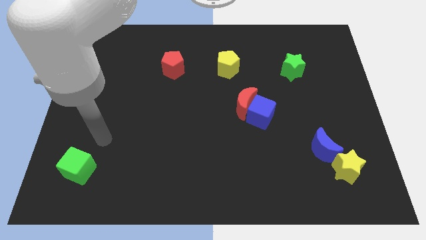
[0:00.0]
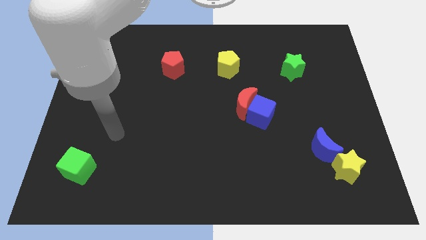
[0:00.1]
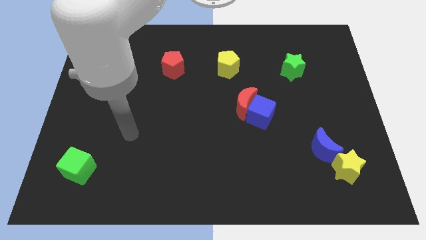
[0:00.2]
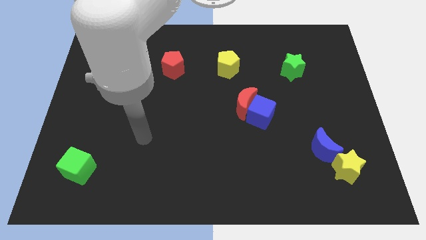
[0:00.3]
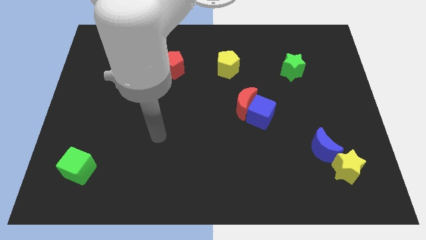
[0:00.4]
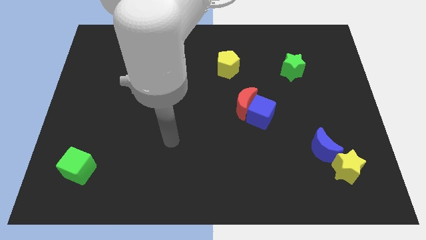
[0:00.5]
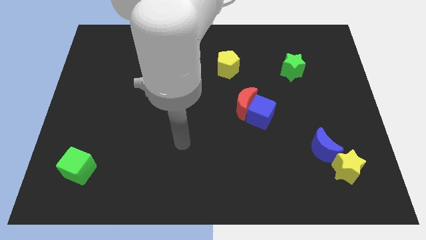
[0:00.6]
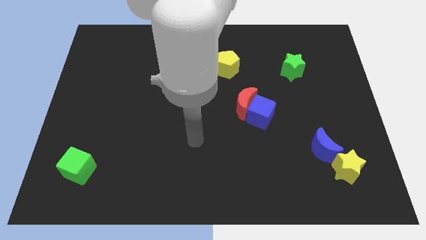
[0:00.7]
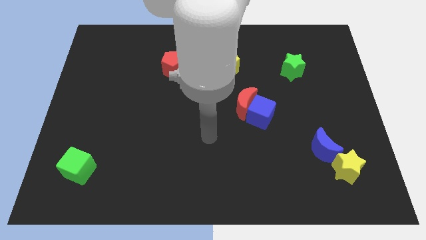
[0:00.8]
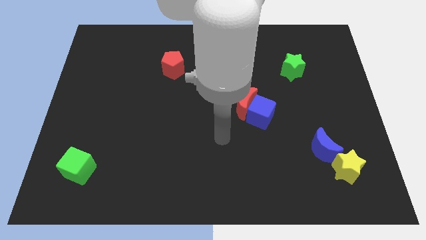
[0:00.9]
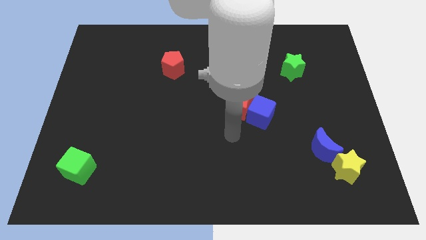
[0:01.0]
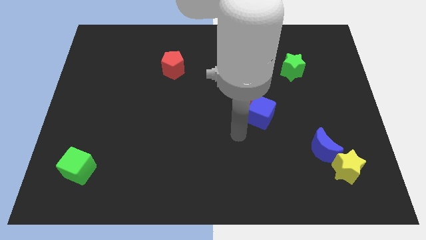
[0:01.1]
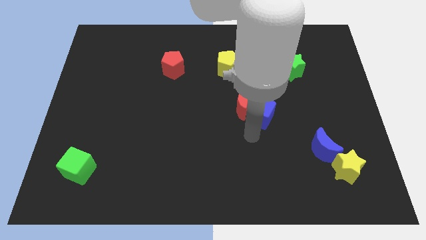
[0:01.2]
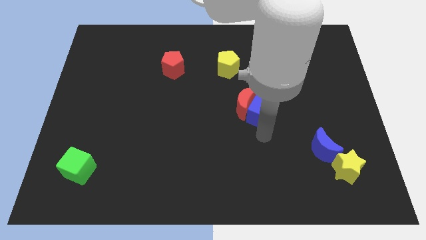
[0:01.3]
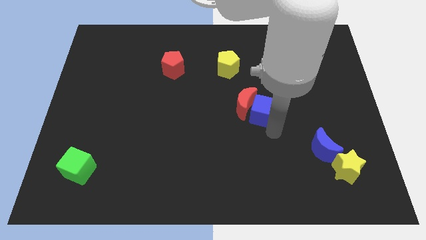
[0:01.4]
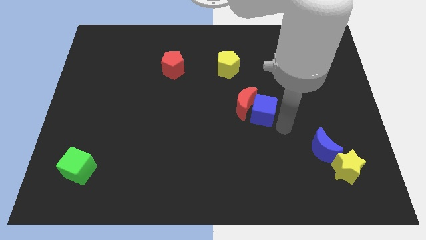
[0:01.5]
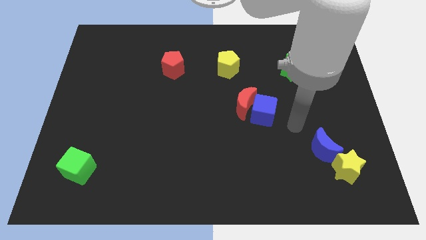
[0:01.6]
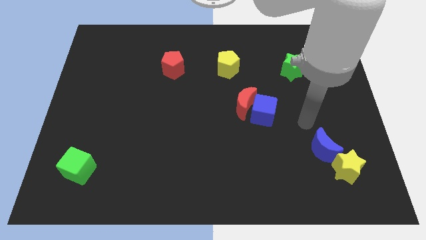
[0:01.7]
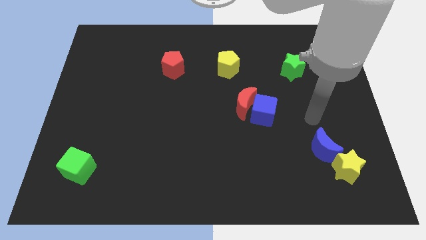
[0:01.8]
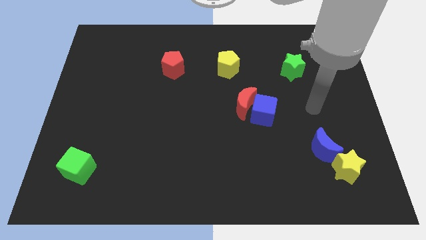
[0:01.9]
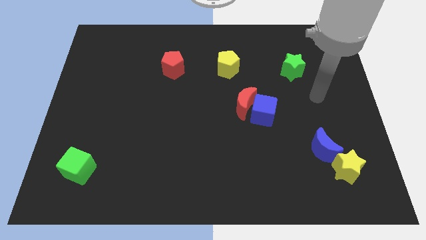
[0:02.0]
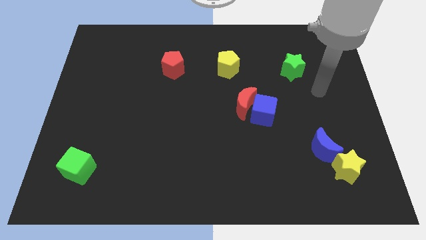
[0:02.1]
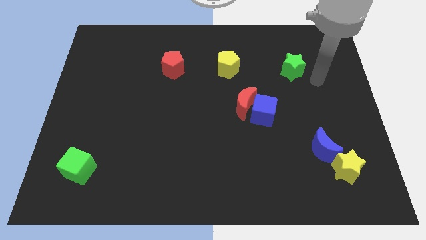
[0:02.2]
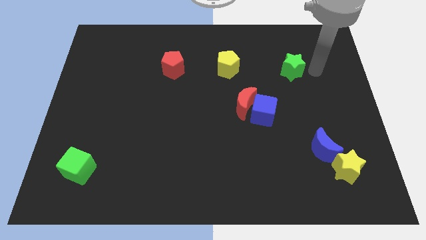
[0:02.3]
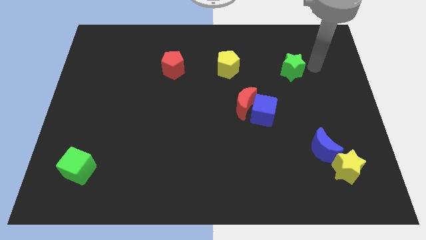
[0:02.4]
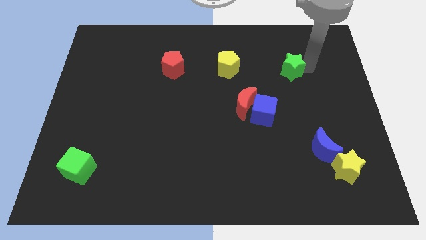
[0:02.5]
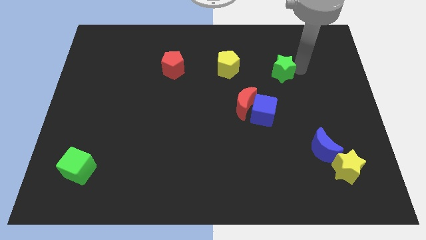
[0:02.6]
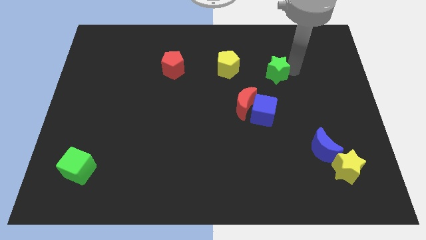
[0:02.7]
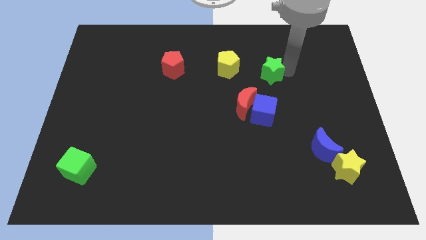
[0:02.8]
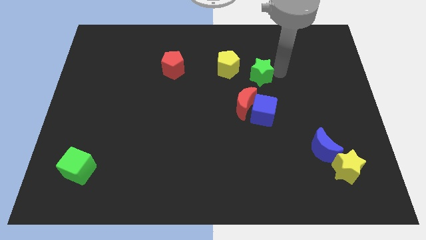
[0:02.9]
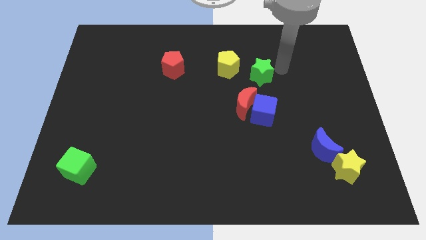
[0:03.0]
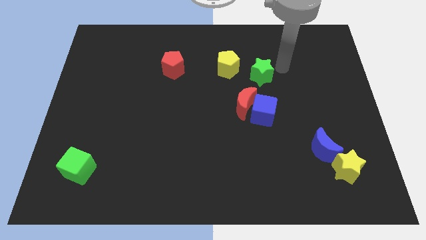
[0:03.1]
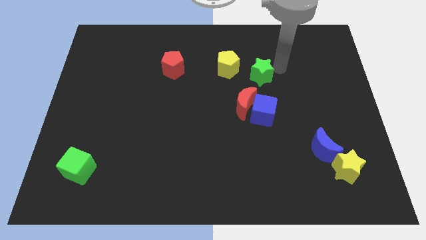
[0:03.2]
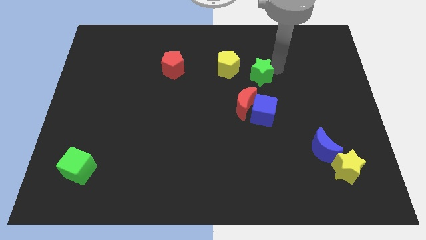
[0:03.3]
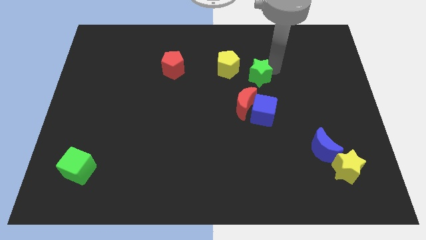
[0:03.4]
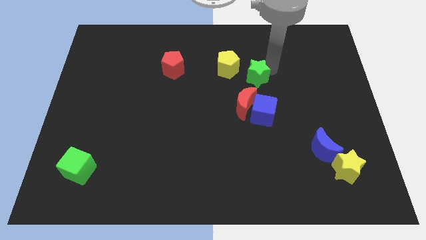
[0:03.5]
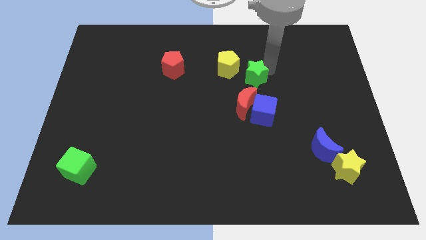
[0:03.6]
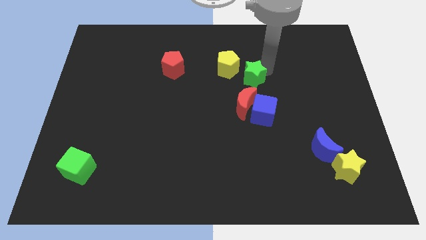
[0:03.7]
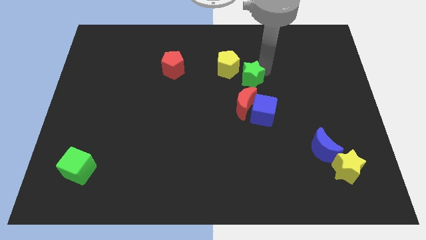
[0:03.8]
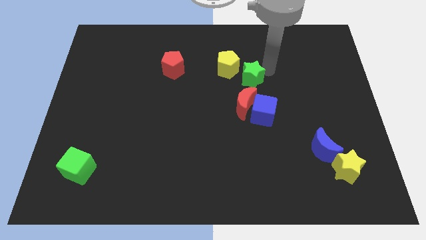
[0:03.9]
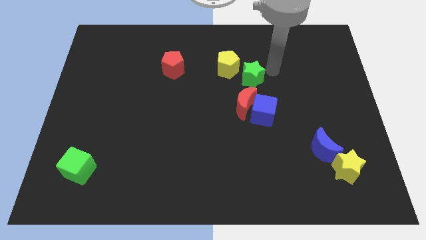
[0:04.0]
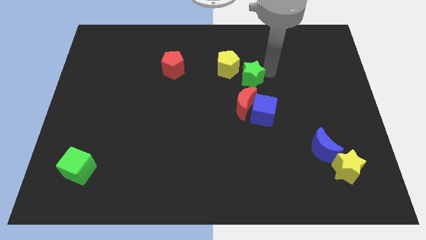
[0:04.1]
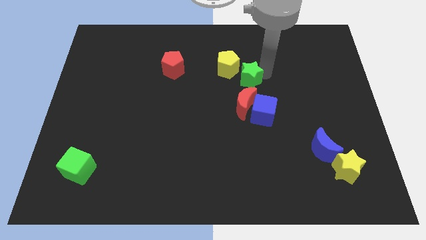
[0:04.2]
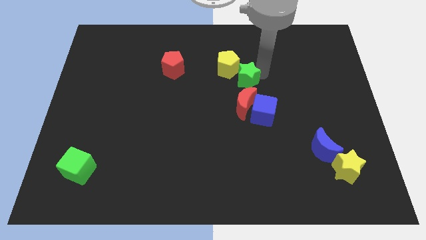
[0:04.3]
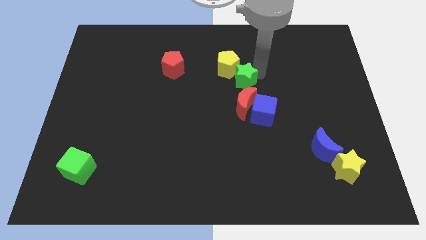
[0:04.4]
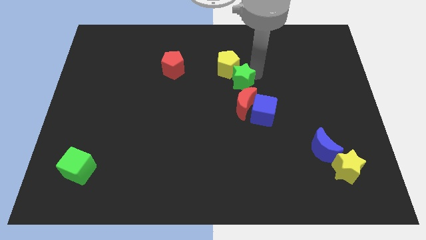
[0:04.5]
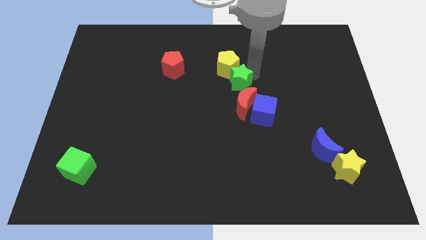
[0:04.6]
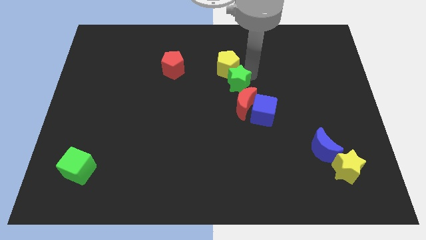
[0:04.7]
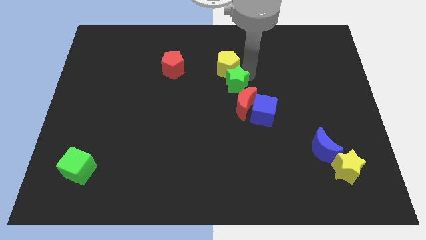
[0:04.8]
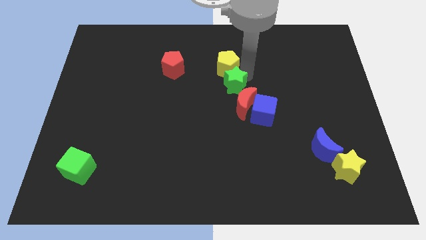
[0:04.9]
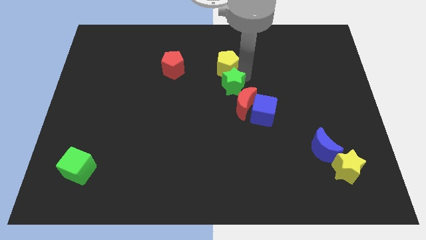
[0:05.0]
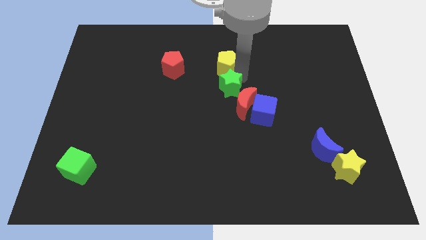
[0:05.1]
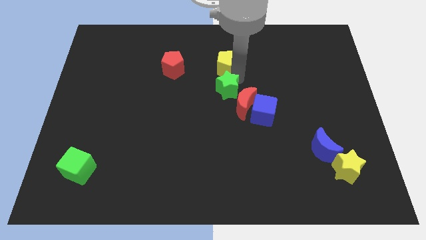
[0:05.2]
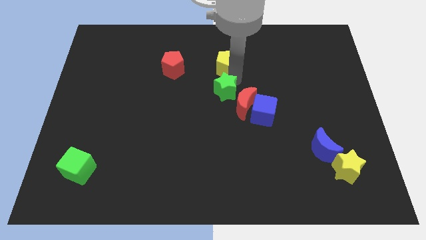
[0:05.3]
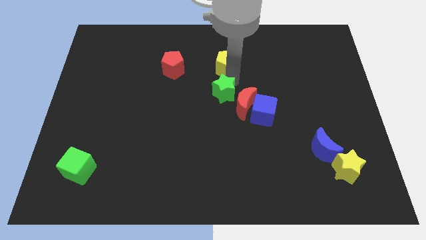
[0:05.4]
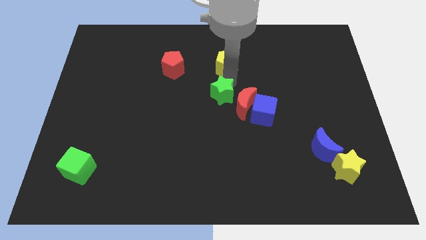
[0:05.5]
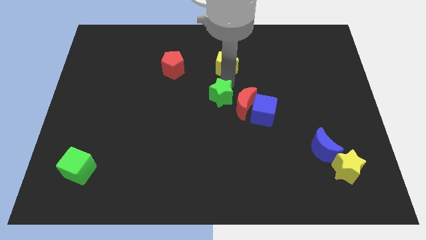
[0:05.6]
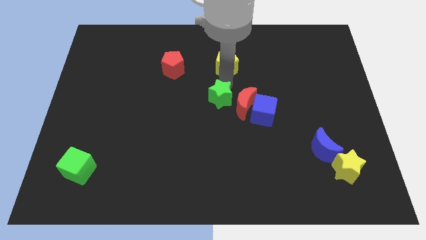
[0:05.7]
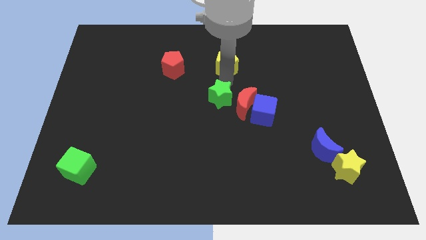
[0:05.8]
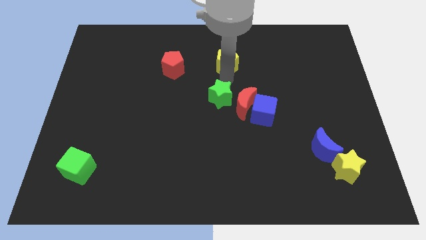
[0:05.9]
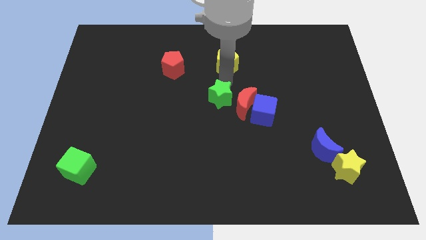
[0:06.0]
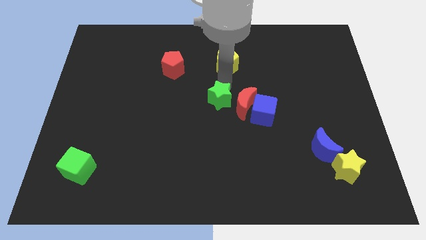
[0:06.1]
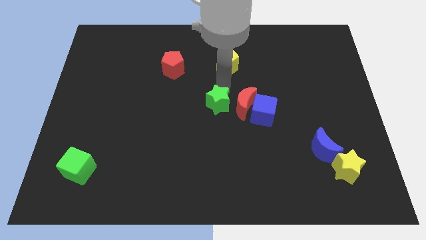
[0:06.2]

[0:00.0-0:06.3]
push the green star diagonally downwards and left

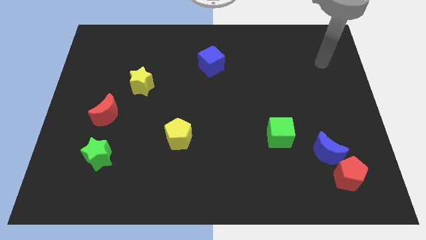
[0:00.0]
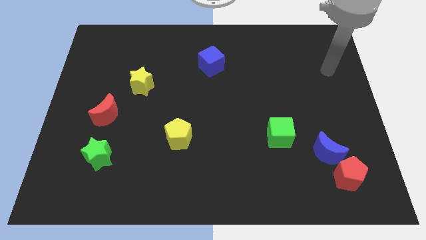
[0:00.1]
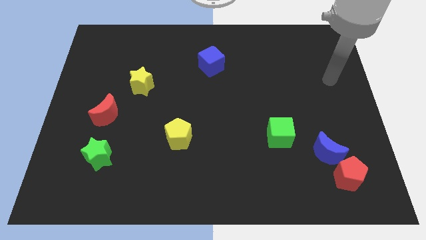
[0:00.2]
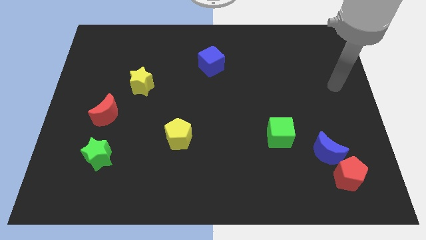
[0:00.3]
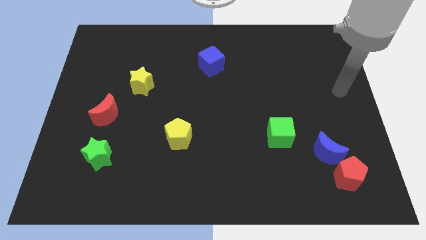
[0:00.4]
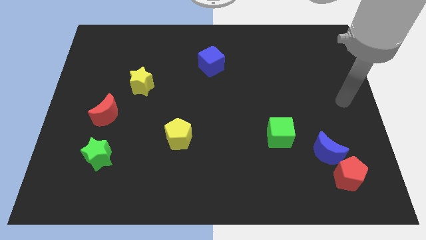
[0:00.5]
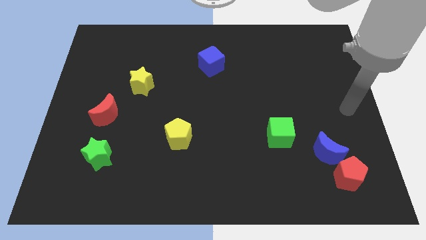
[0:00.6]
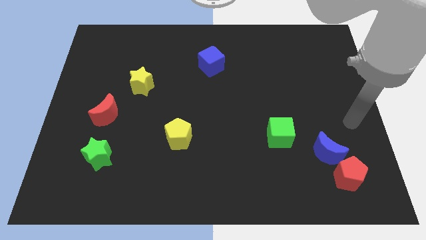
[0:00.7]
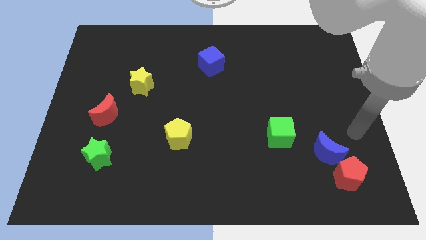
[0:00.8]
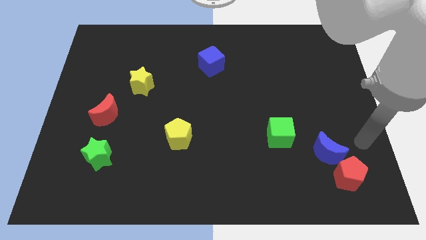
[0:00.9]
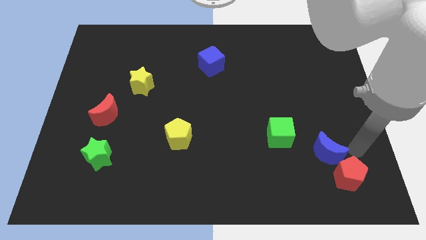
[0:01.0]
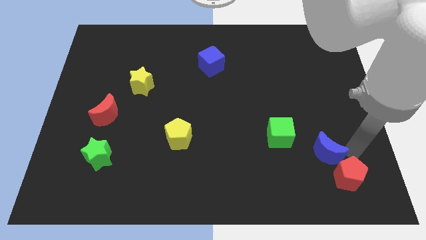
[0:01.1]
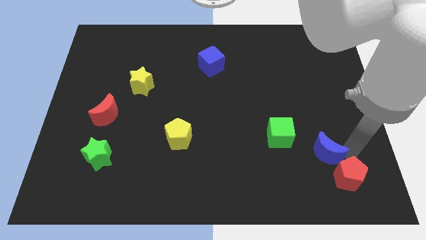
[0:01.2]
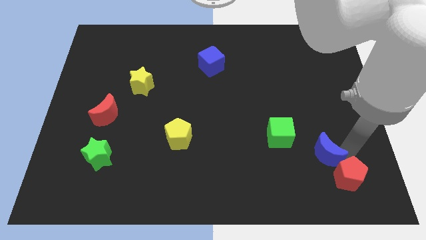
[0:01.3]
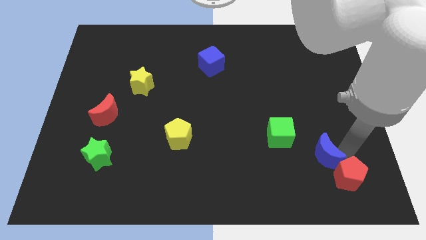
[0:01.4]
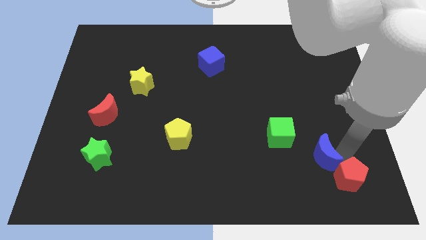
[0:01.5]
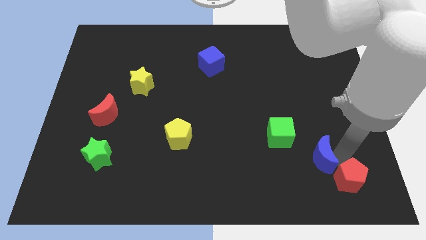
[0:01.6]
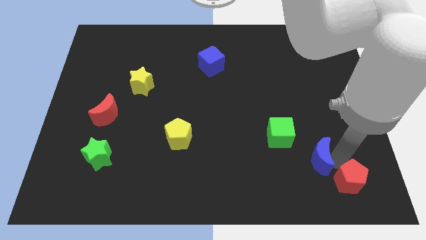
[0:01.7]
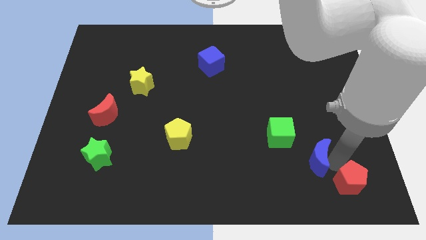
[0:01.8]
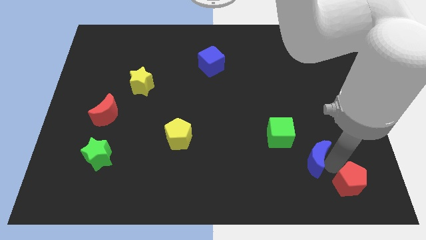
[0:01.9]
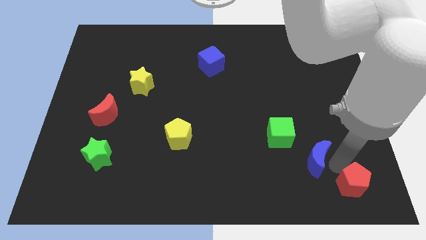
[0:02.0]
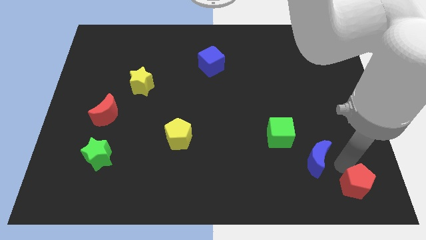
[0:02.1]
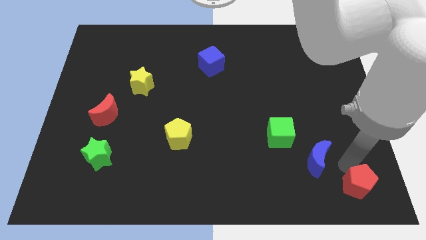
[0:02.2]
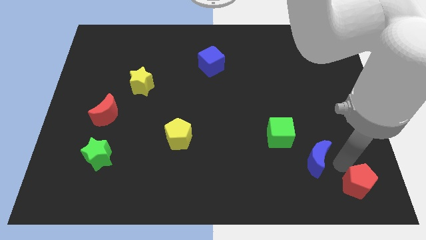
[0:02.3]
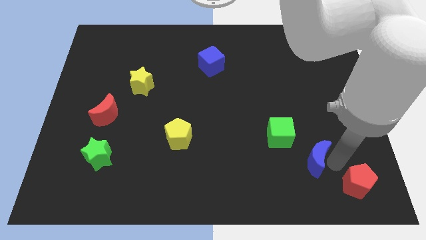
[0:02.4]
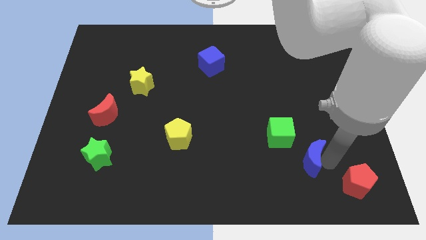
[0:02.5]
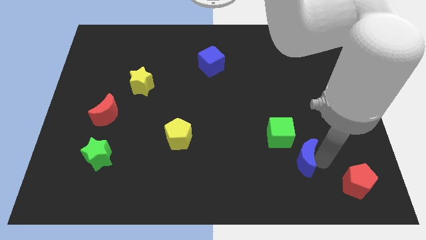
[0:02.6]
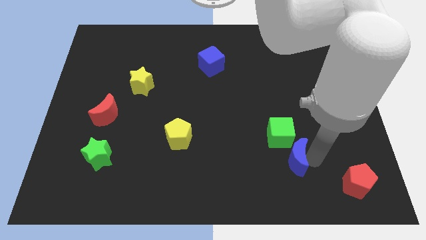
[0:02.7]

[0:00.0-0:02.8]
move the blue moon left a bit
